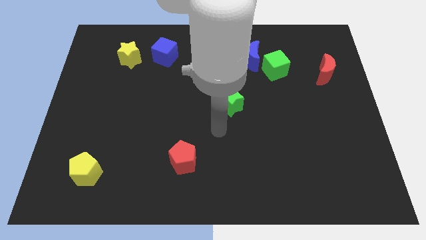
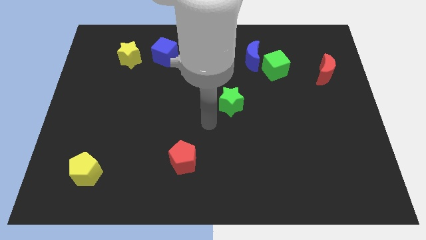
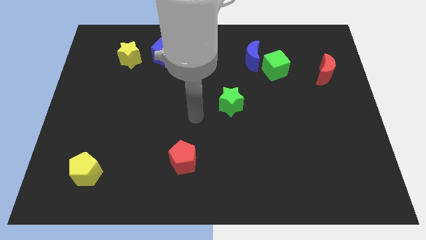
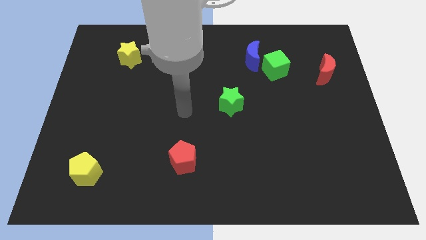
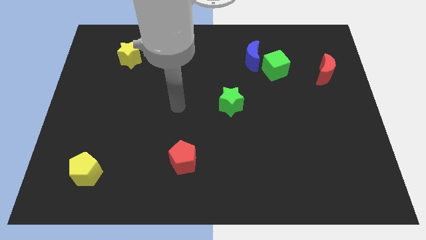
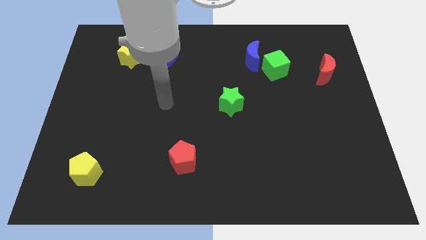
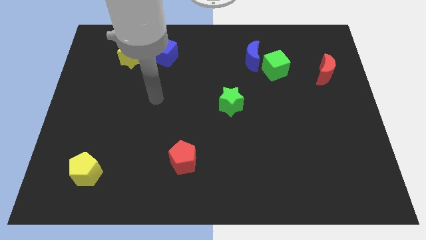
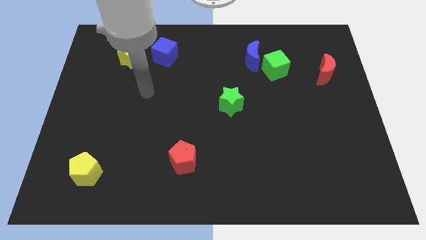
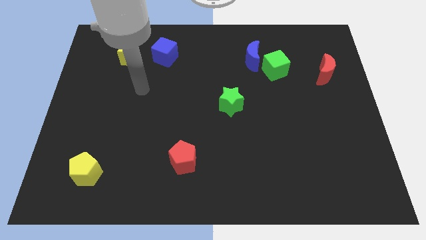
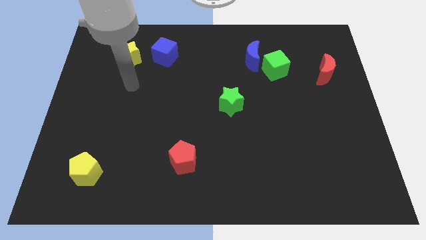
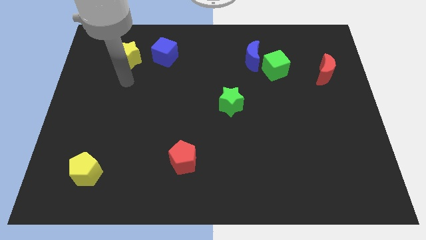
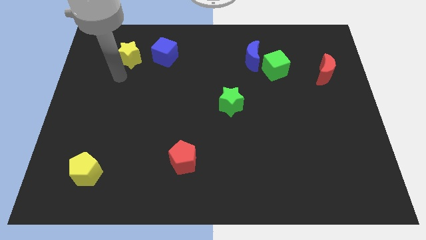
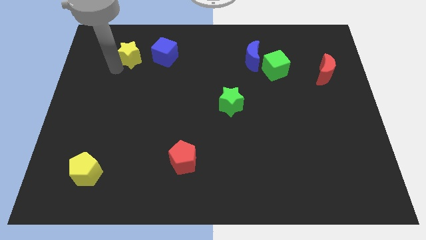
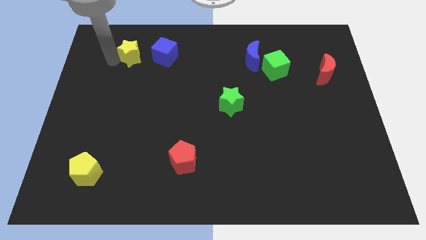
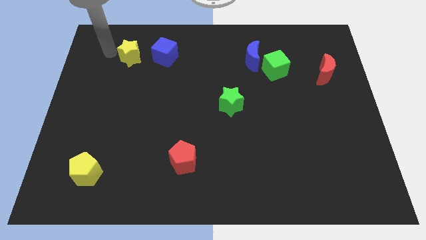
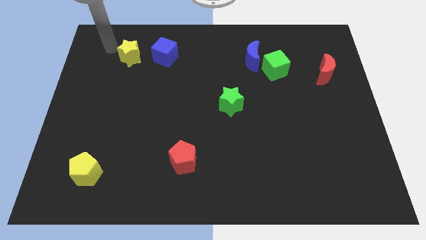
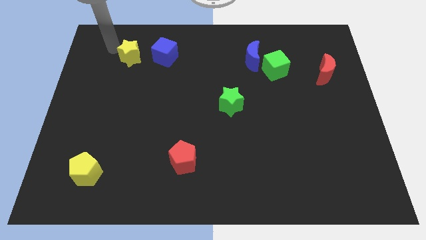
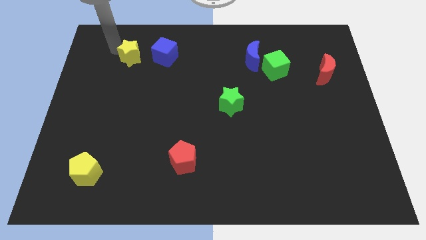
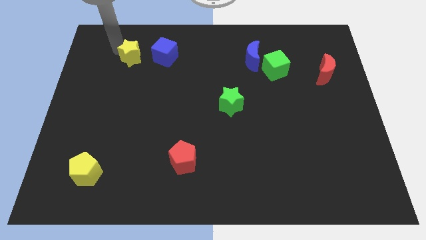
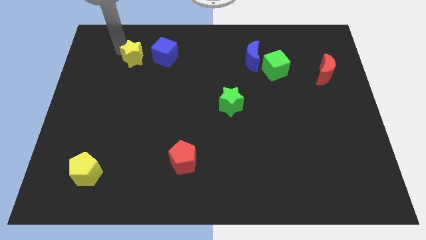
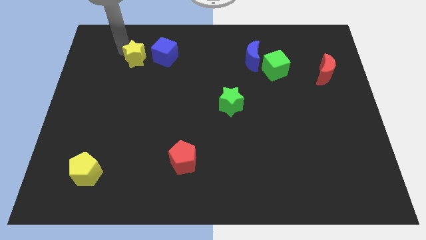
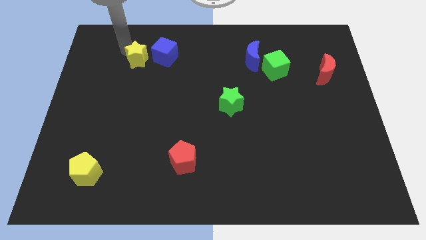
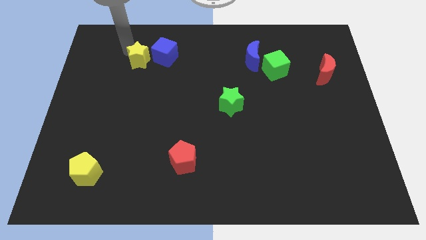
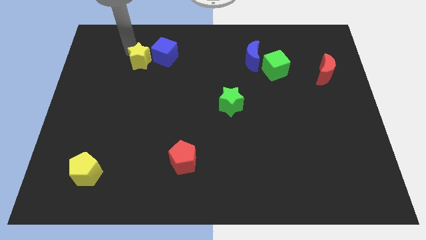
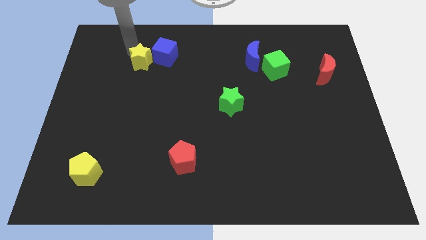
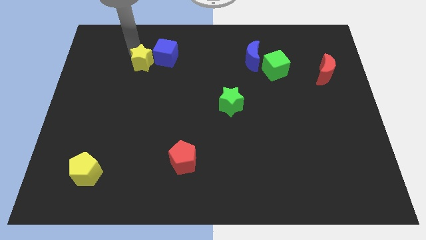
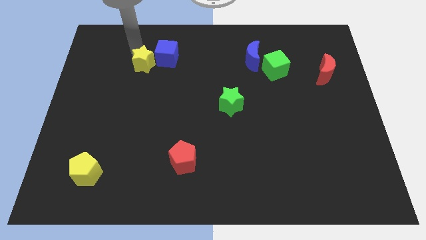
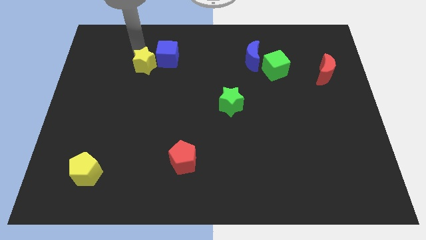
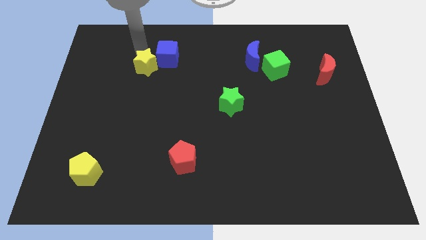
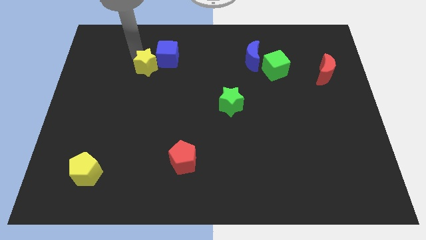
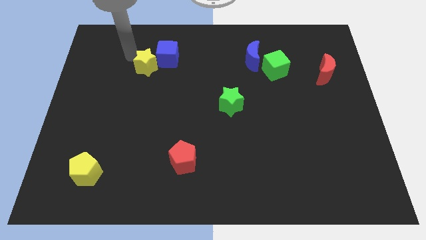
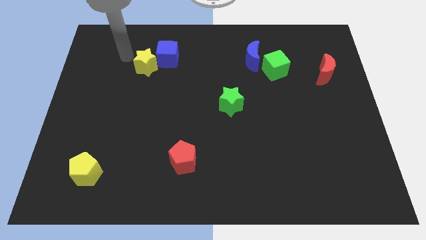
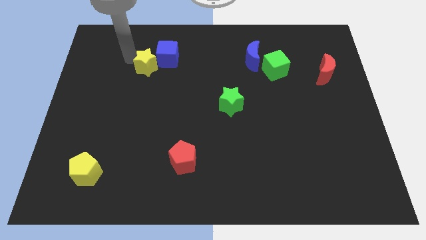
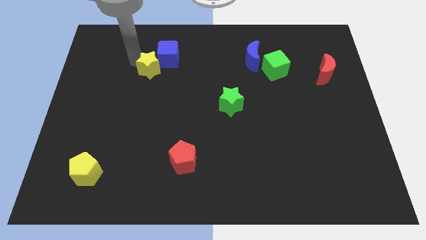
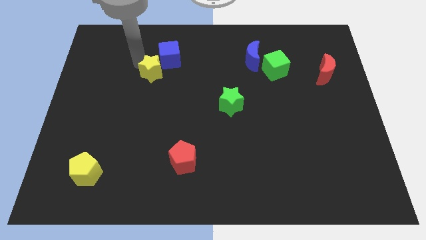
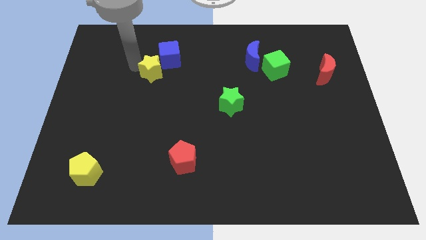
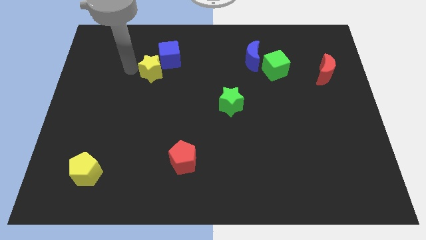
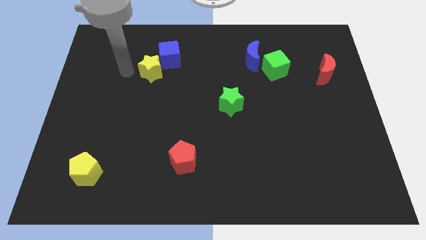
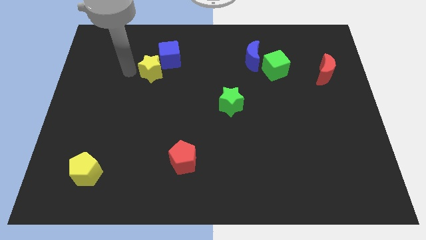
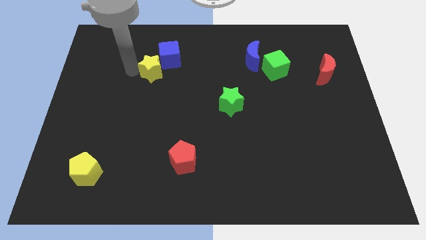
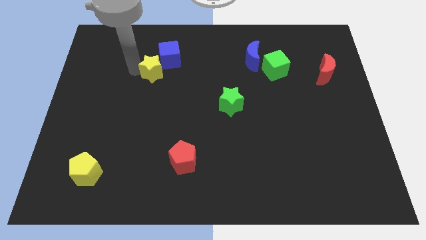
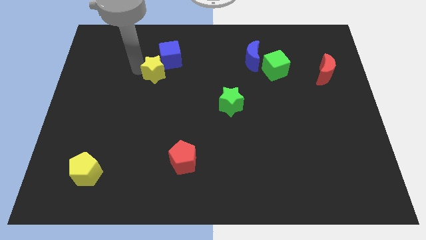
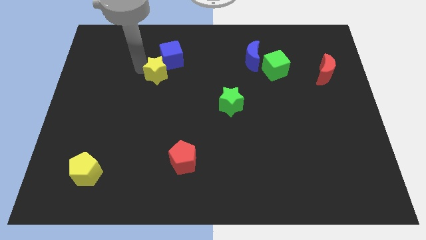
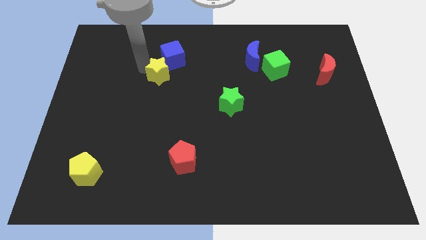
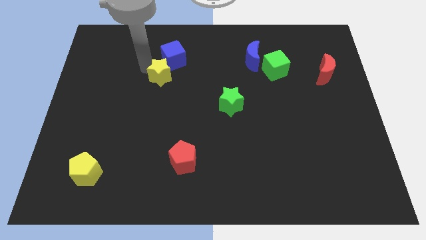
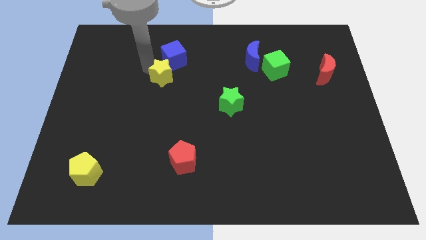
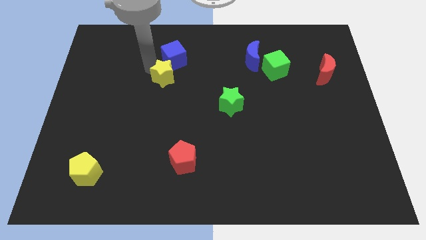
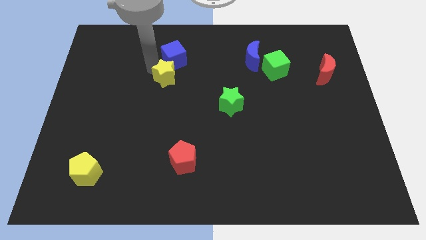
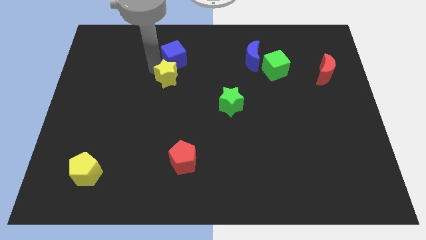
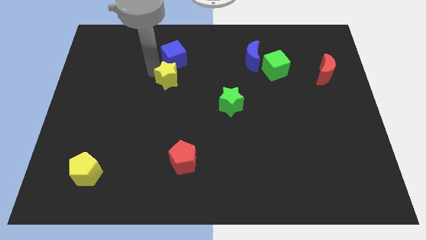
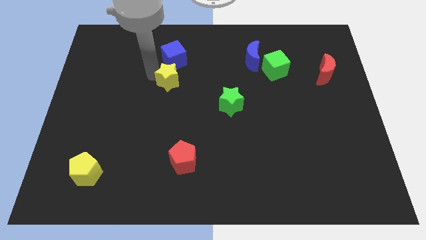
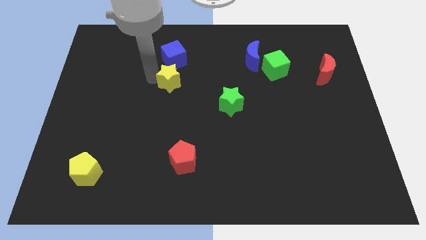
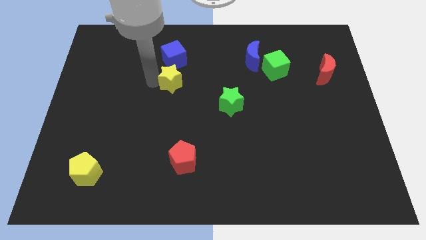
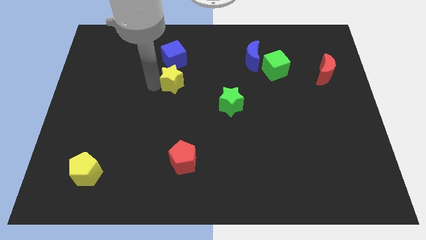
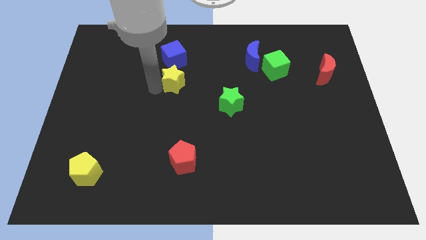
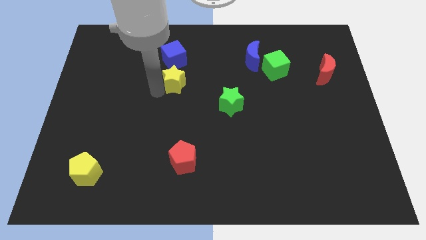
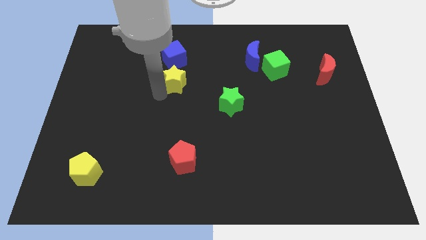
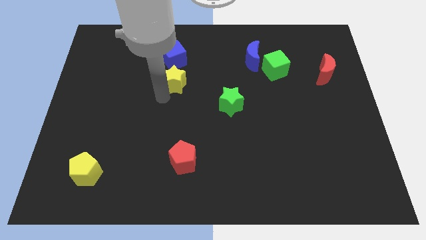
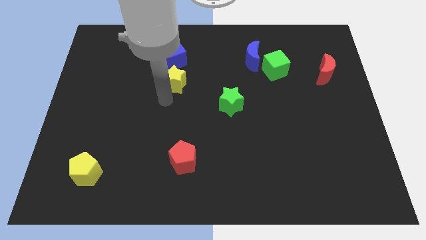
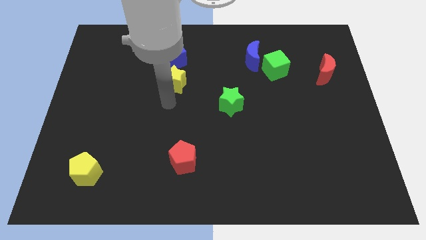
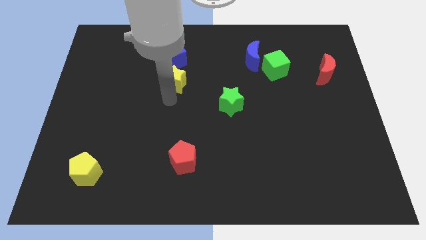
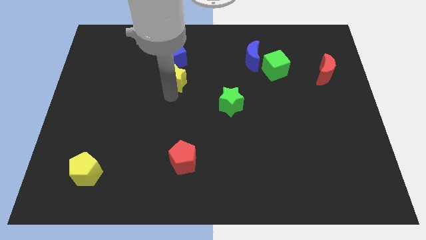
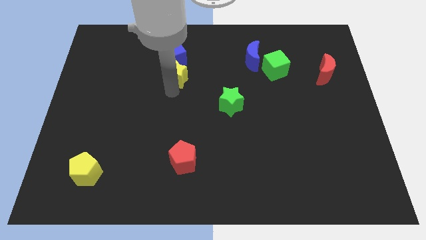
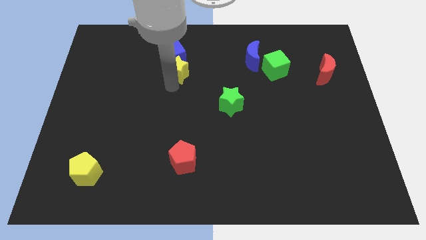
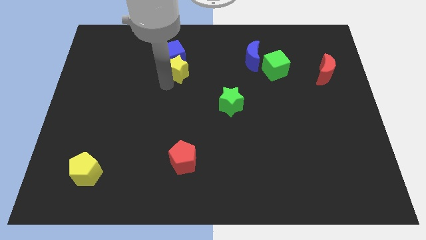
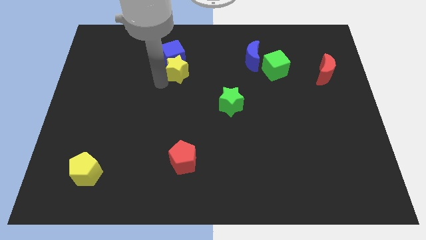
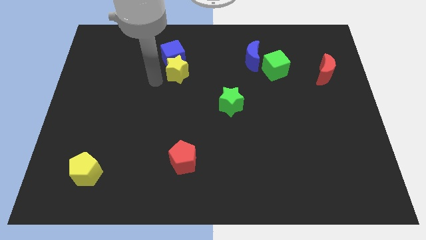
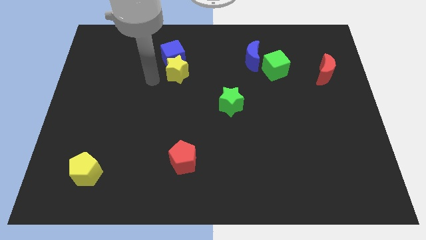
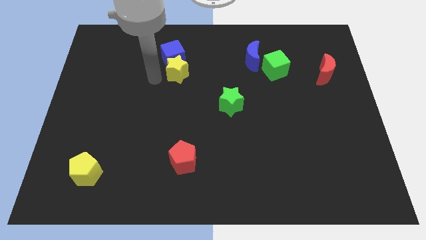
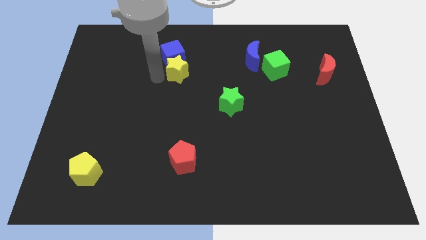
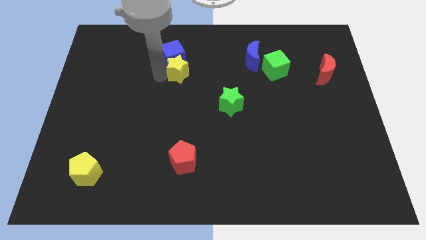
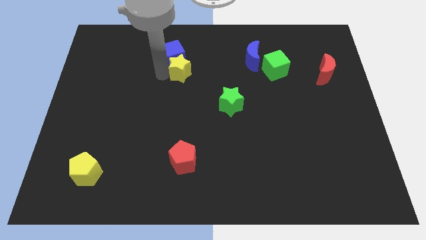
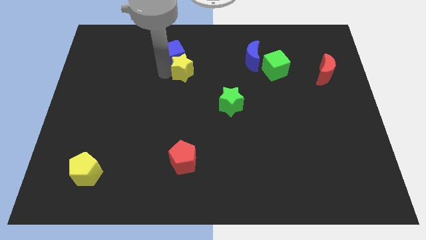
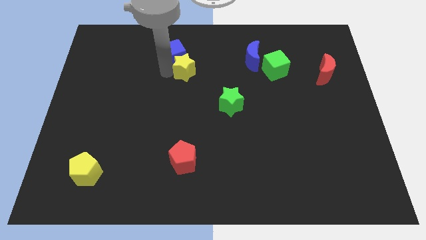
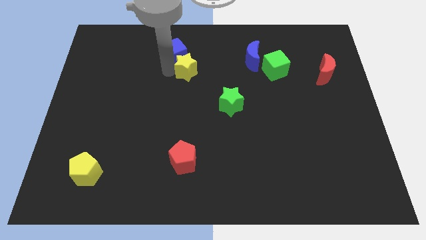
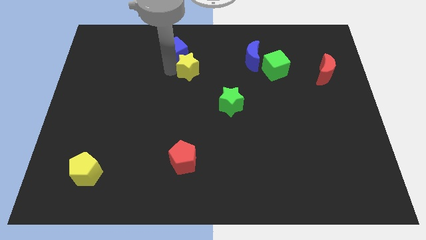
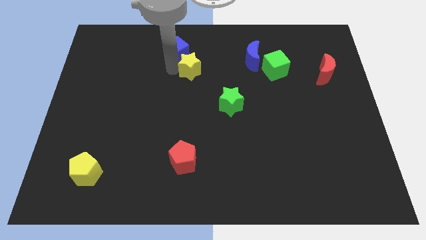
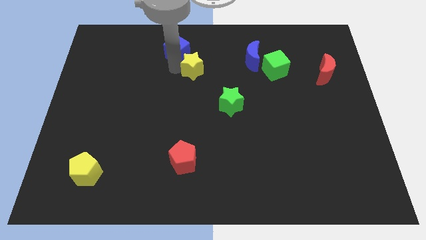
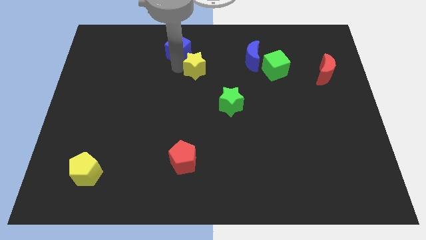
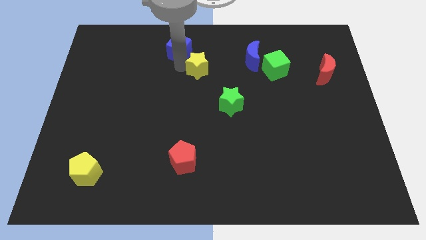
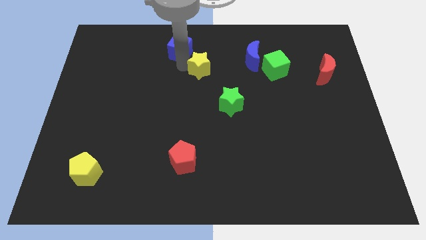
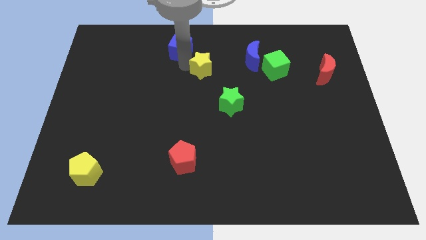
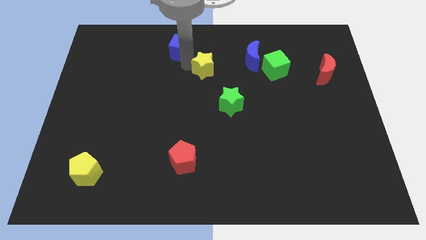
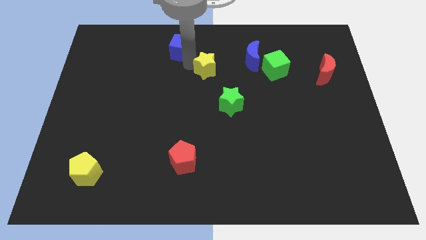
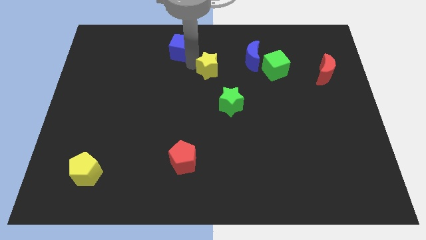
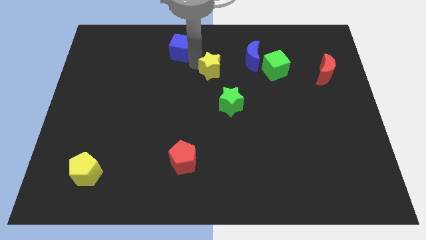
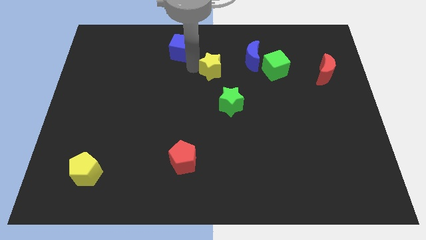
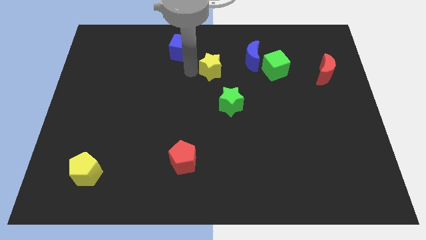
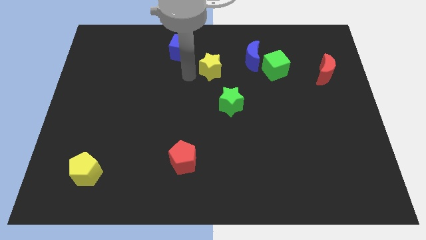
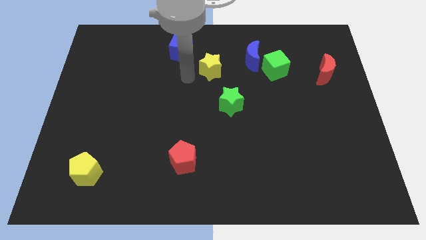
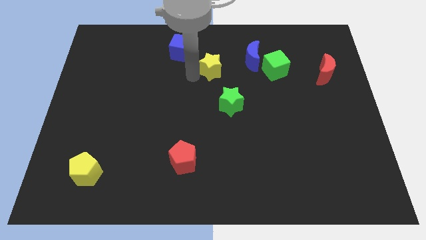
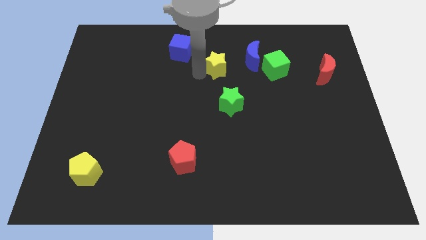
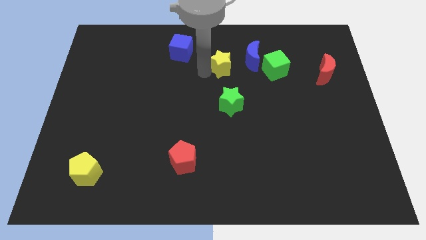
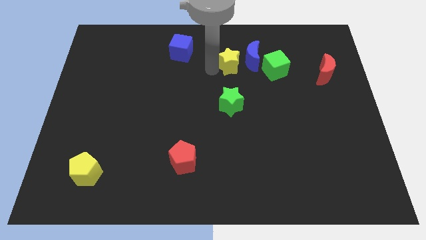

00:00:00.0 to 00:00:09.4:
move the yellow star to the blue moon
